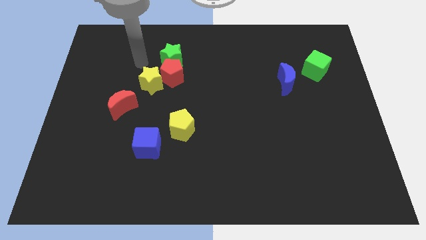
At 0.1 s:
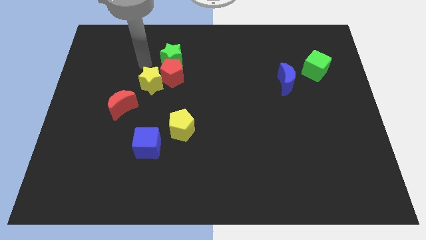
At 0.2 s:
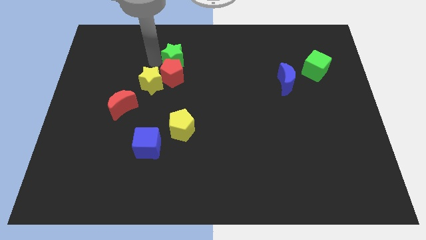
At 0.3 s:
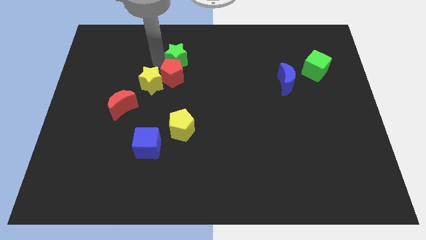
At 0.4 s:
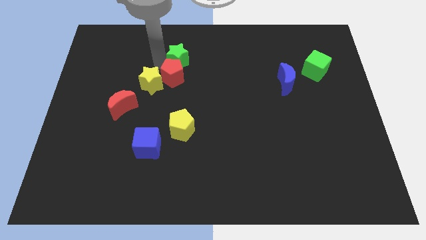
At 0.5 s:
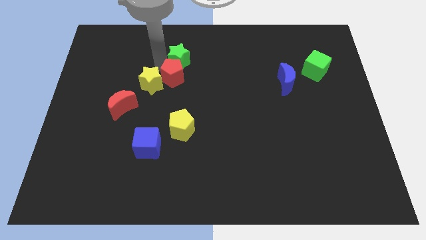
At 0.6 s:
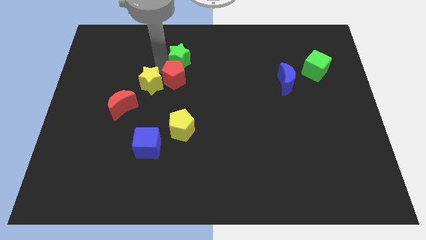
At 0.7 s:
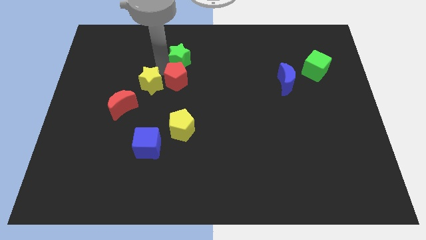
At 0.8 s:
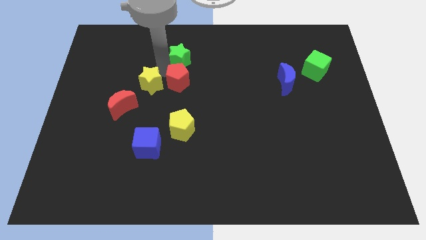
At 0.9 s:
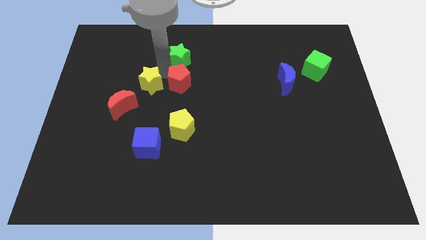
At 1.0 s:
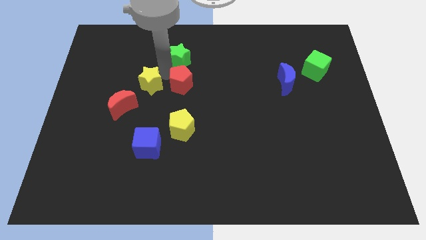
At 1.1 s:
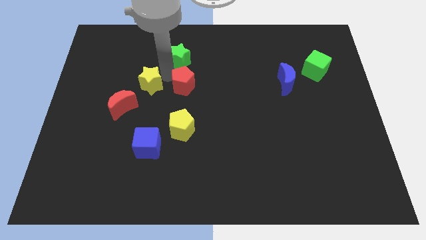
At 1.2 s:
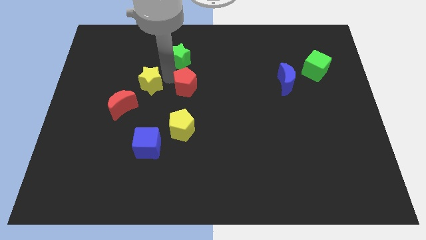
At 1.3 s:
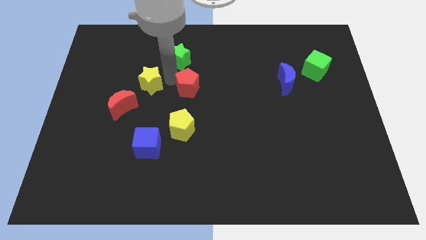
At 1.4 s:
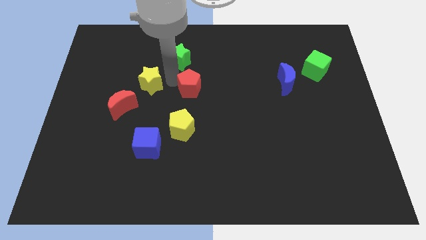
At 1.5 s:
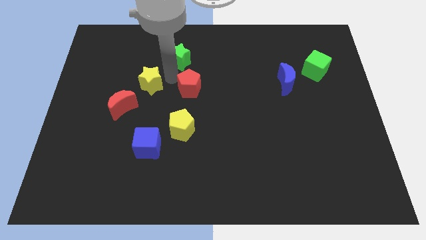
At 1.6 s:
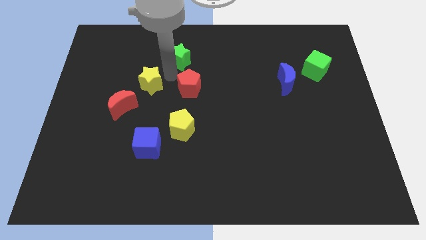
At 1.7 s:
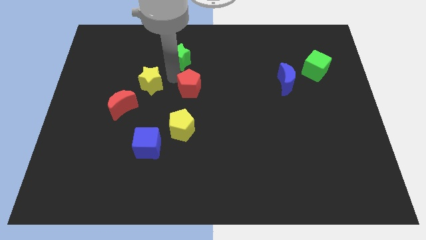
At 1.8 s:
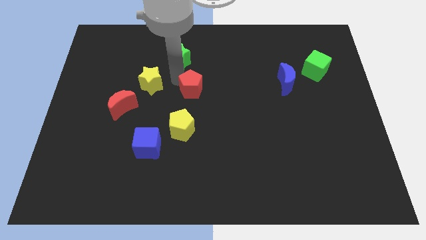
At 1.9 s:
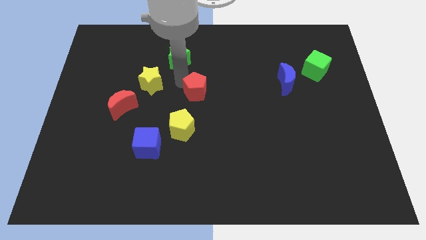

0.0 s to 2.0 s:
separate the red pentagon from the green star and yellow star

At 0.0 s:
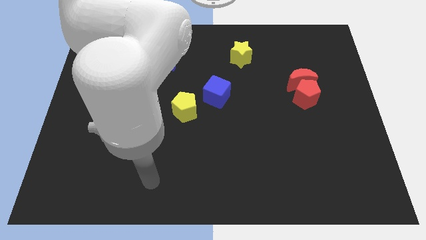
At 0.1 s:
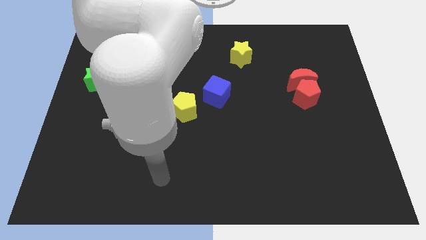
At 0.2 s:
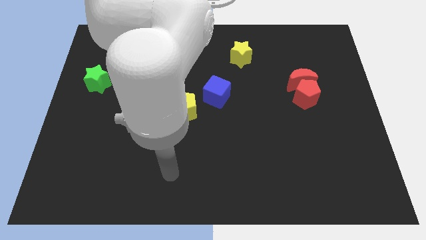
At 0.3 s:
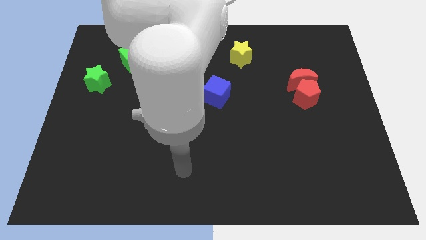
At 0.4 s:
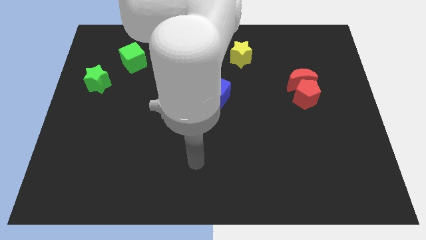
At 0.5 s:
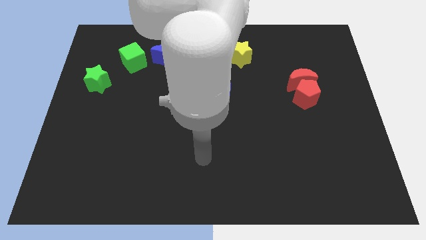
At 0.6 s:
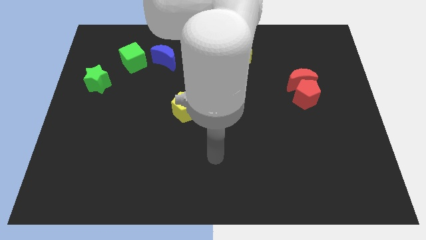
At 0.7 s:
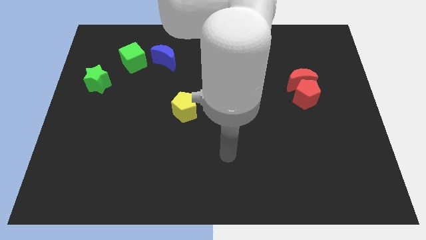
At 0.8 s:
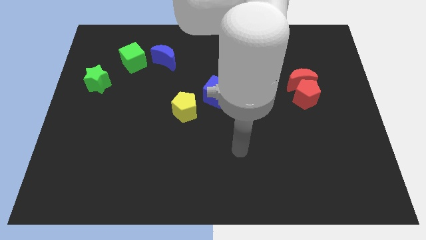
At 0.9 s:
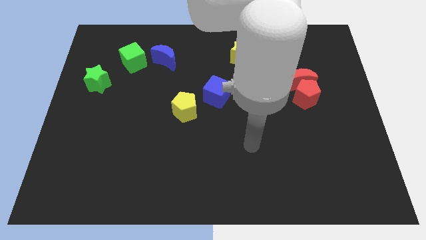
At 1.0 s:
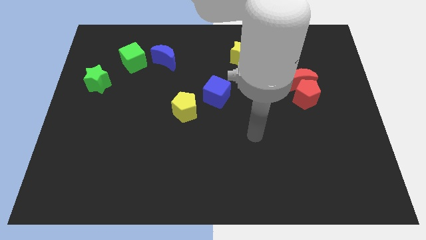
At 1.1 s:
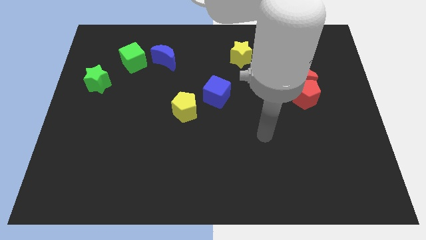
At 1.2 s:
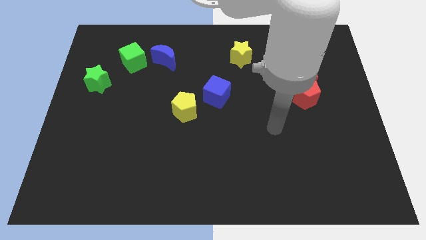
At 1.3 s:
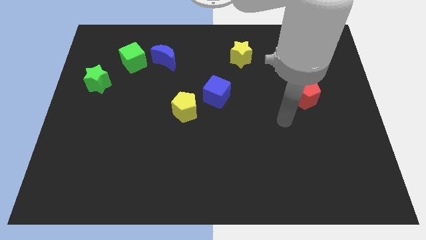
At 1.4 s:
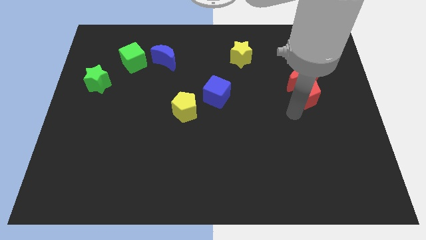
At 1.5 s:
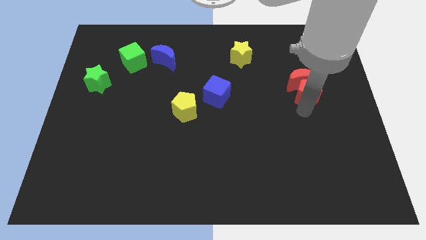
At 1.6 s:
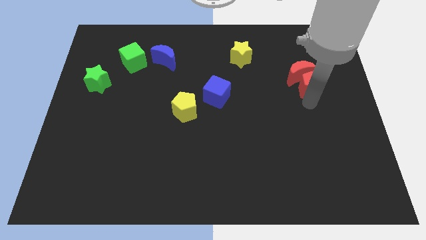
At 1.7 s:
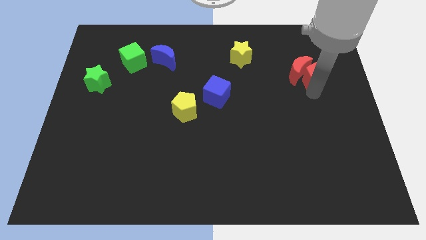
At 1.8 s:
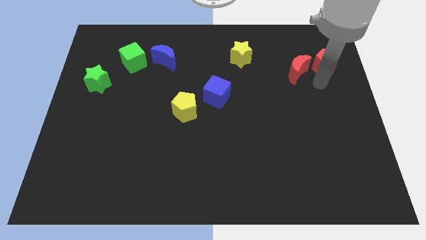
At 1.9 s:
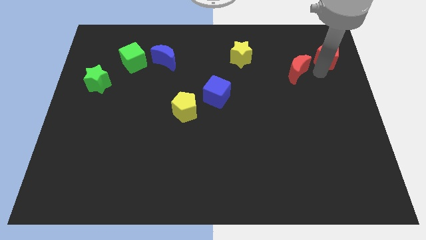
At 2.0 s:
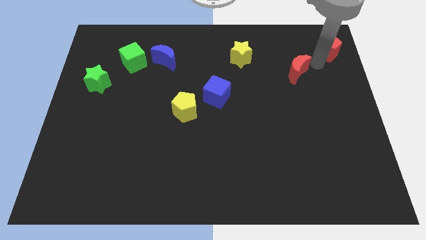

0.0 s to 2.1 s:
separate the red moon from the red pentagon

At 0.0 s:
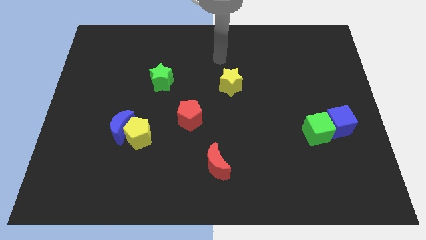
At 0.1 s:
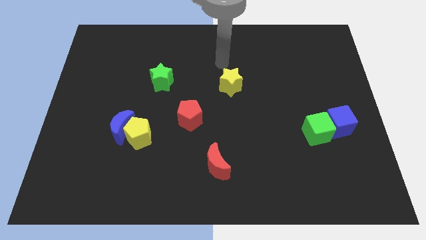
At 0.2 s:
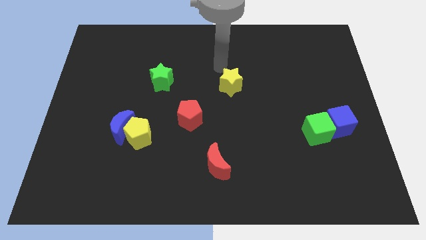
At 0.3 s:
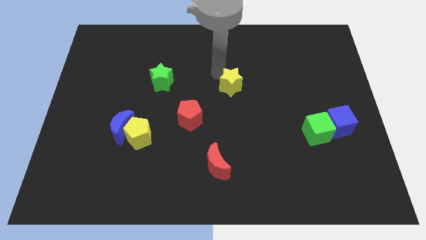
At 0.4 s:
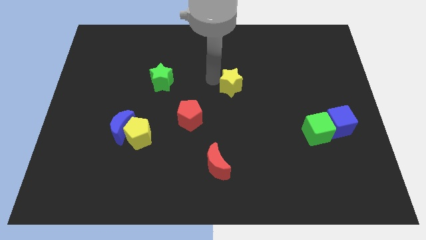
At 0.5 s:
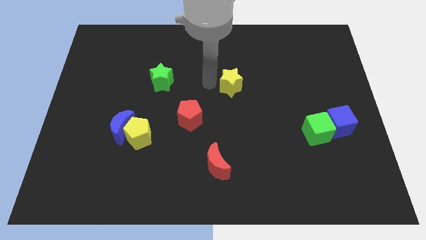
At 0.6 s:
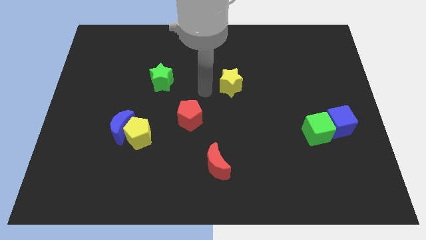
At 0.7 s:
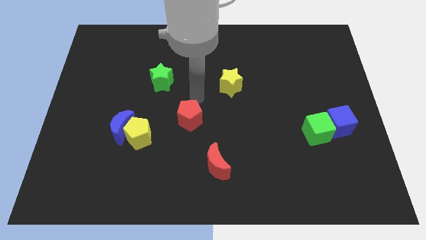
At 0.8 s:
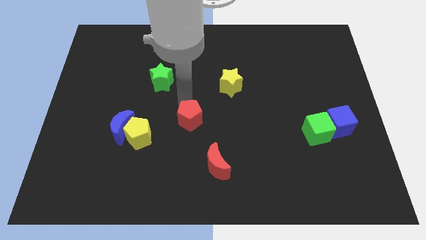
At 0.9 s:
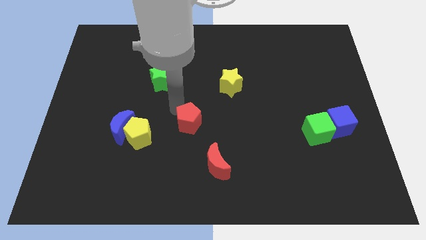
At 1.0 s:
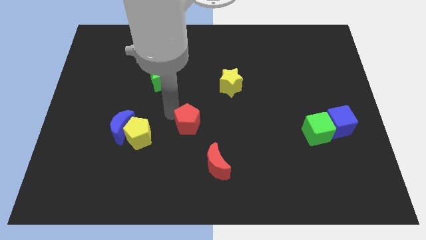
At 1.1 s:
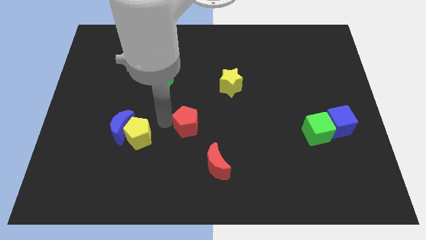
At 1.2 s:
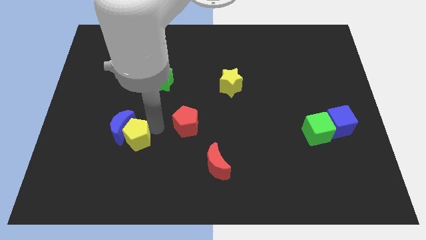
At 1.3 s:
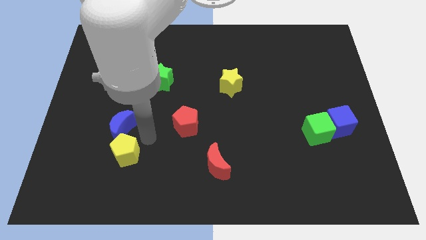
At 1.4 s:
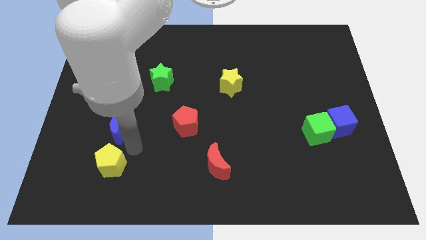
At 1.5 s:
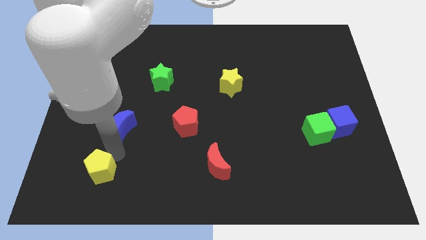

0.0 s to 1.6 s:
separate the blue moon from the yellow pentagon

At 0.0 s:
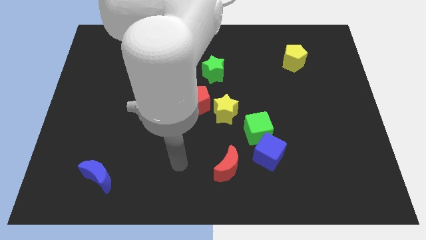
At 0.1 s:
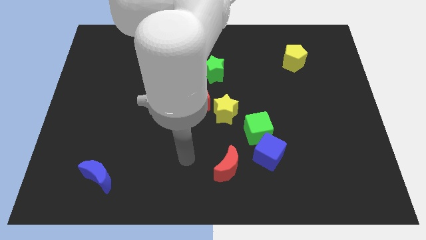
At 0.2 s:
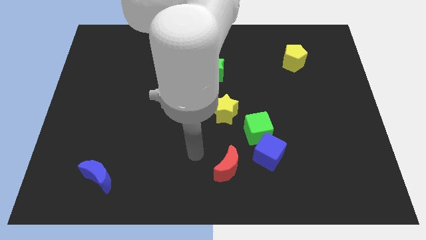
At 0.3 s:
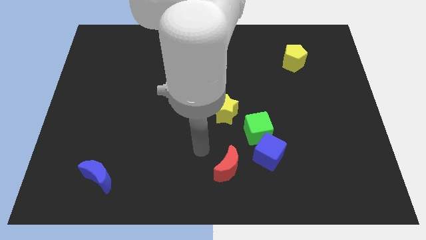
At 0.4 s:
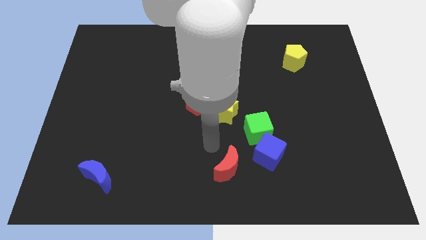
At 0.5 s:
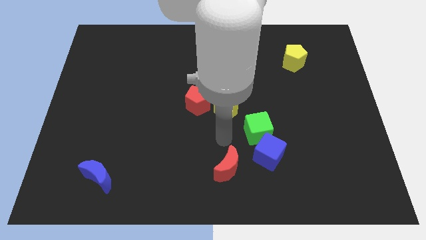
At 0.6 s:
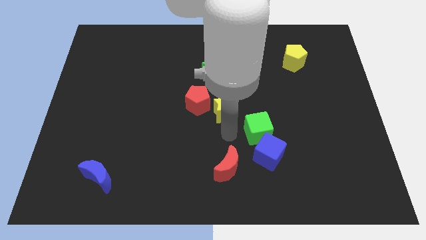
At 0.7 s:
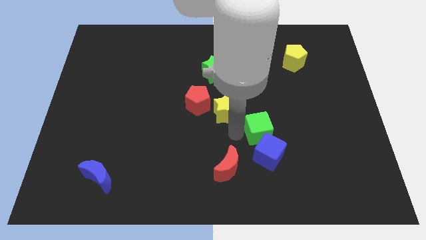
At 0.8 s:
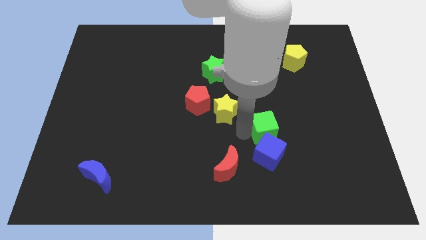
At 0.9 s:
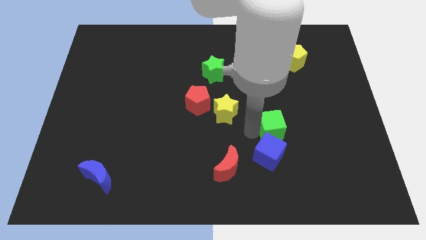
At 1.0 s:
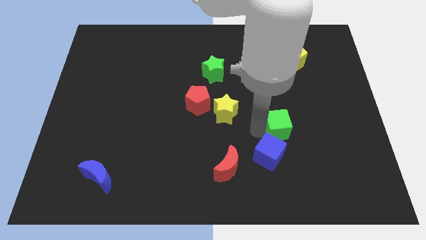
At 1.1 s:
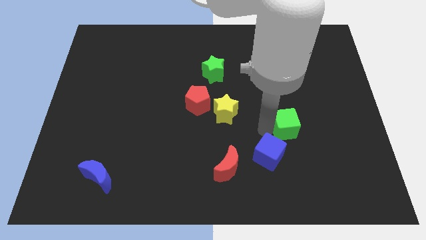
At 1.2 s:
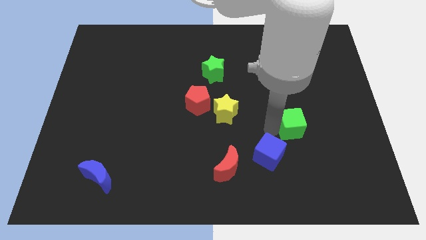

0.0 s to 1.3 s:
pull the green cube apart from the blue cube and yellow star

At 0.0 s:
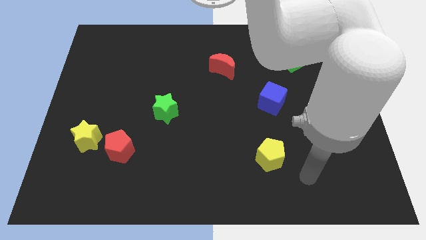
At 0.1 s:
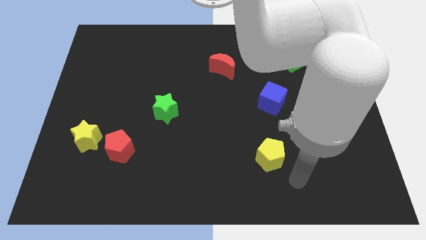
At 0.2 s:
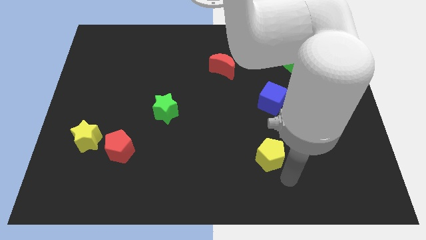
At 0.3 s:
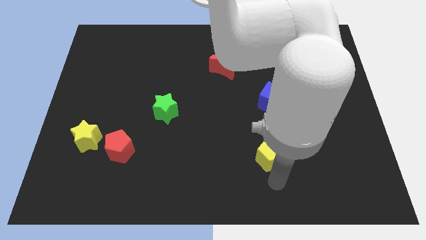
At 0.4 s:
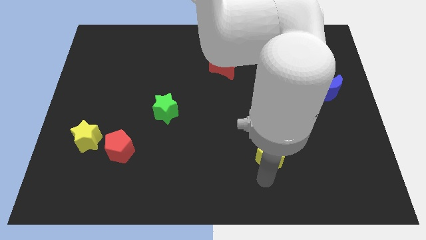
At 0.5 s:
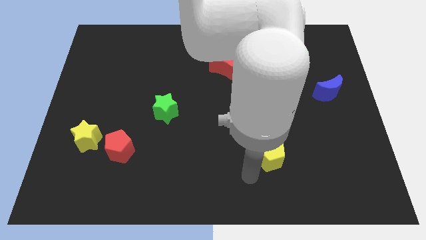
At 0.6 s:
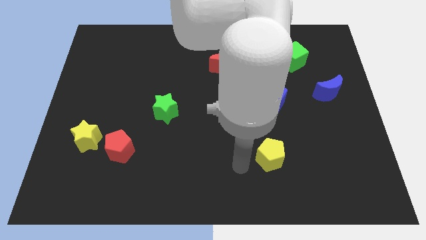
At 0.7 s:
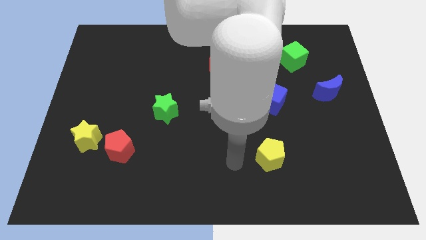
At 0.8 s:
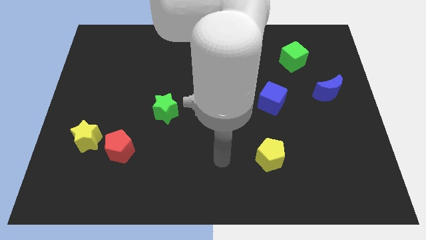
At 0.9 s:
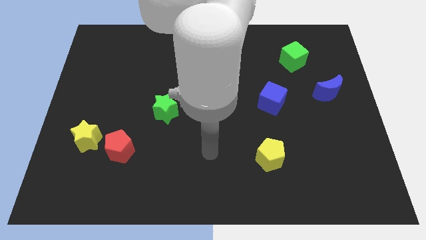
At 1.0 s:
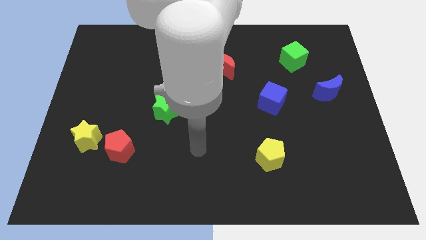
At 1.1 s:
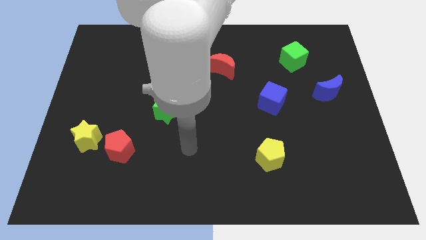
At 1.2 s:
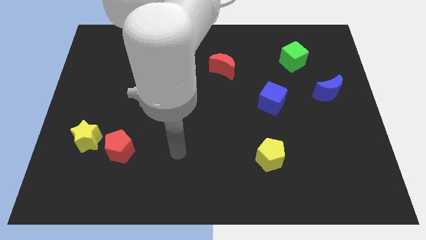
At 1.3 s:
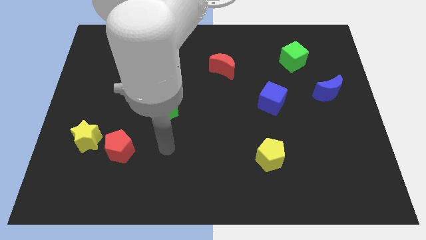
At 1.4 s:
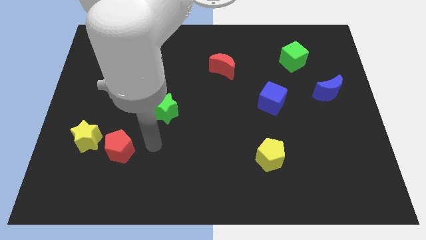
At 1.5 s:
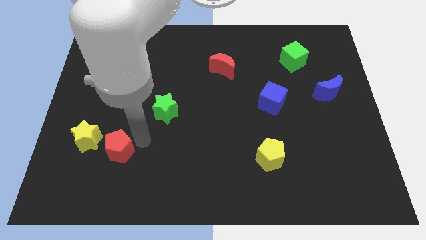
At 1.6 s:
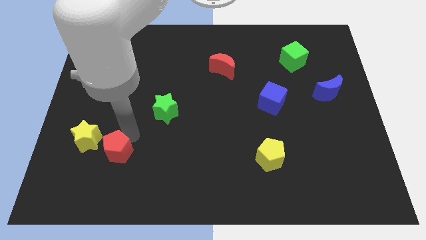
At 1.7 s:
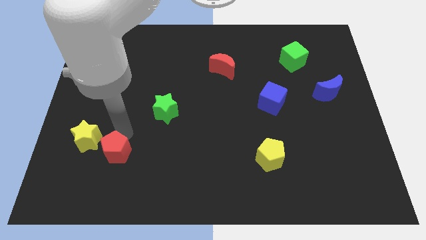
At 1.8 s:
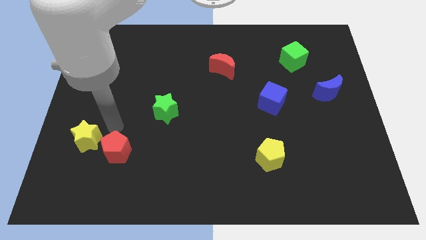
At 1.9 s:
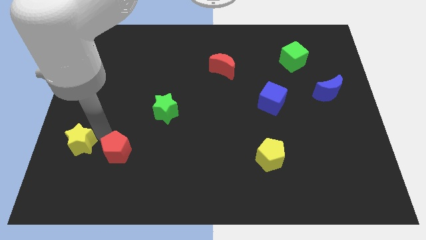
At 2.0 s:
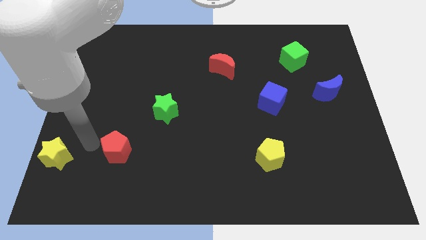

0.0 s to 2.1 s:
pull the red pentagon apart from the yellow star
